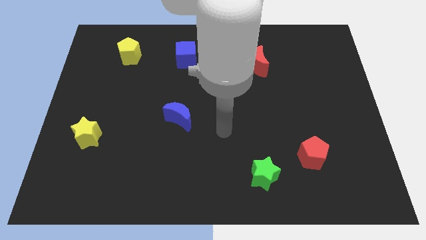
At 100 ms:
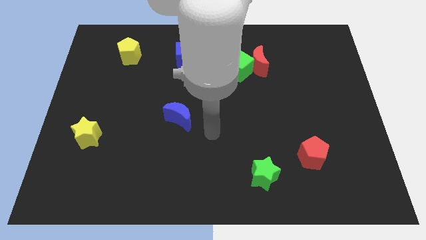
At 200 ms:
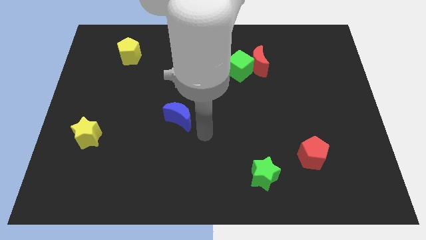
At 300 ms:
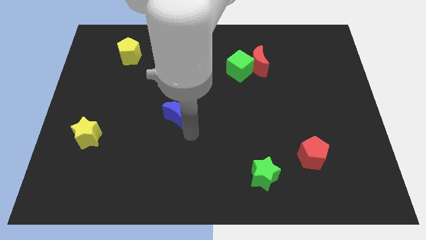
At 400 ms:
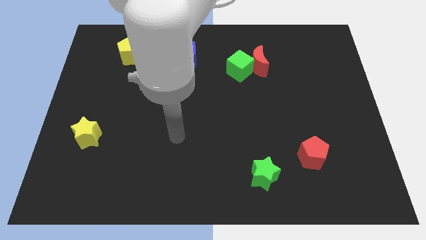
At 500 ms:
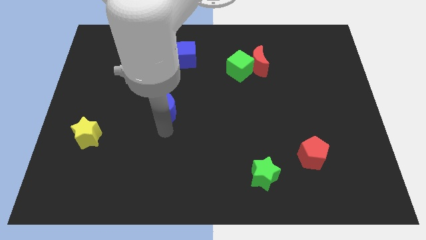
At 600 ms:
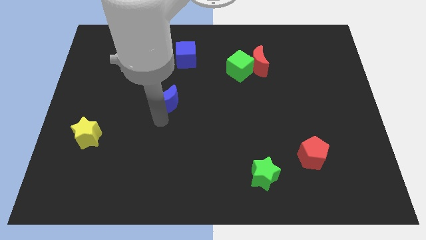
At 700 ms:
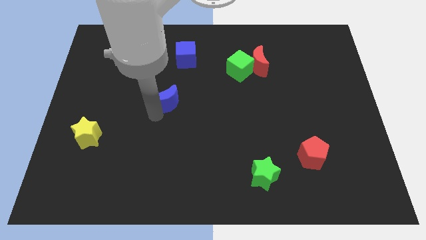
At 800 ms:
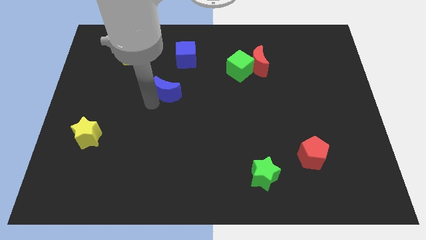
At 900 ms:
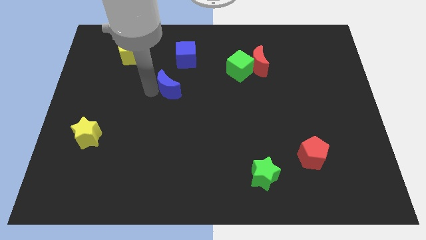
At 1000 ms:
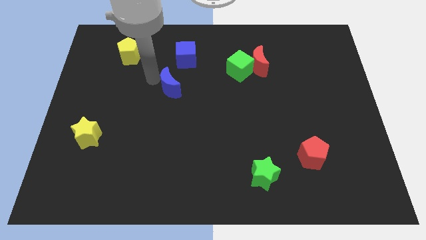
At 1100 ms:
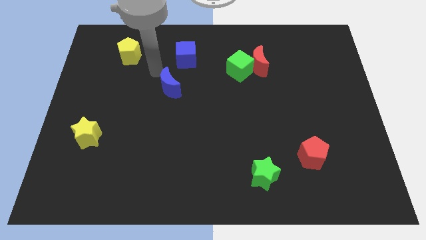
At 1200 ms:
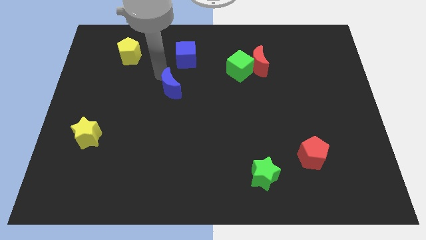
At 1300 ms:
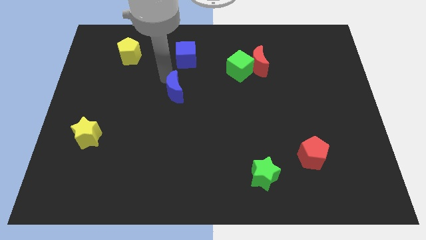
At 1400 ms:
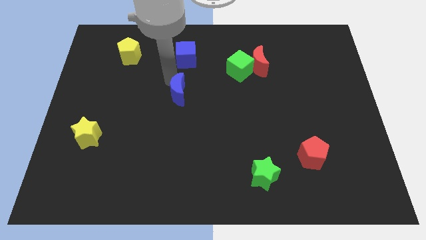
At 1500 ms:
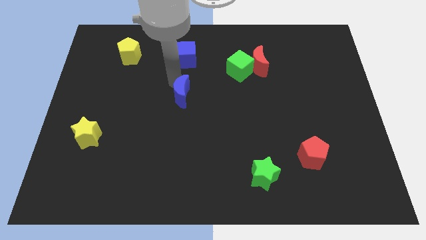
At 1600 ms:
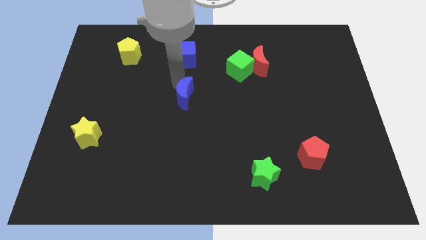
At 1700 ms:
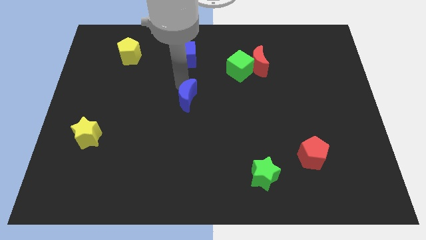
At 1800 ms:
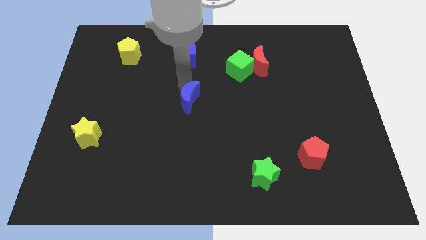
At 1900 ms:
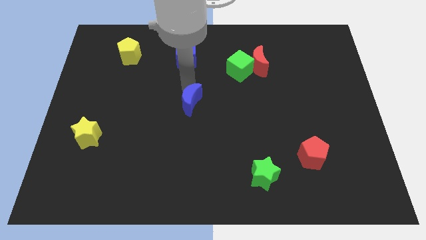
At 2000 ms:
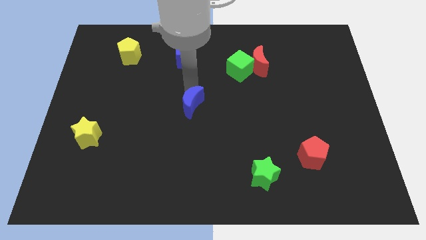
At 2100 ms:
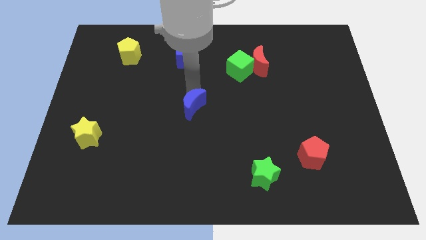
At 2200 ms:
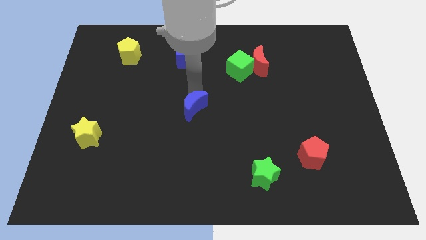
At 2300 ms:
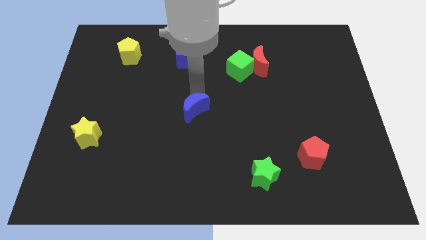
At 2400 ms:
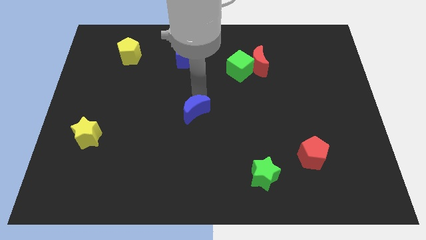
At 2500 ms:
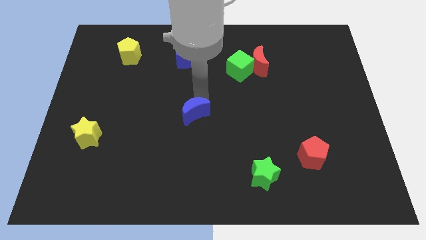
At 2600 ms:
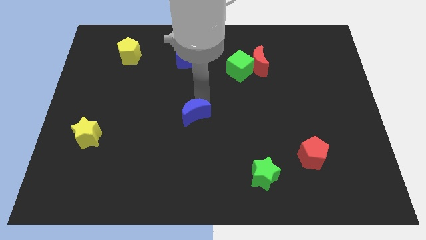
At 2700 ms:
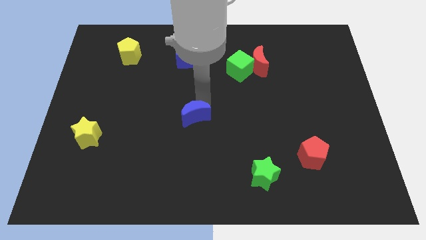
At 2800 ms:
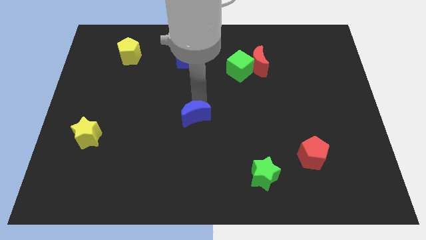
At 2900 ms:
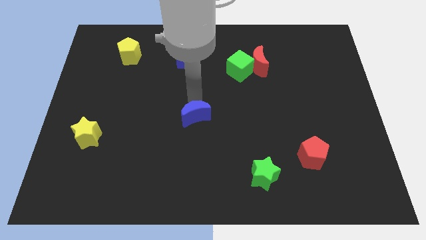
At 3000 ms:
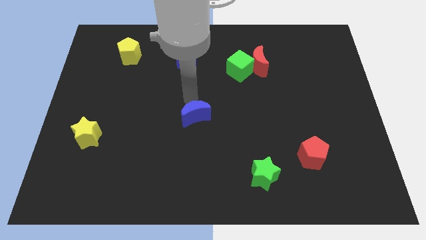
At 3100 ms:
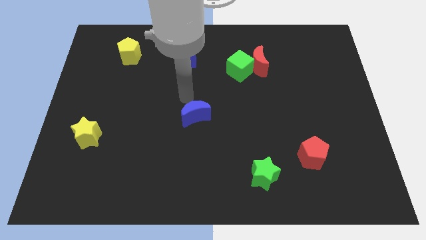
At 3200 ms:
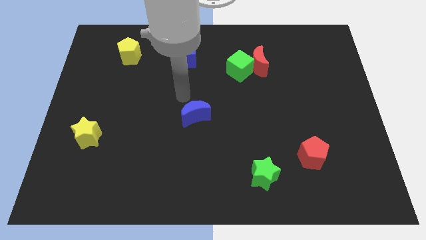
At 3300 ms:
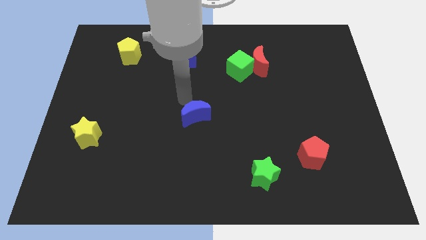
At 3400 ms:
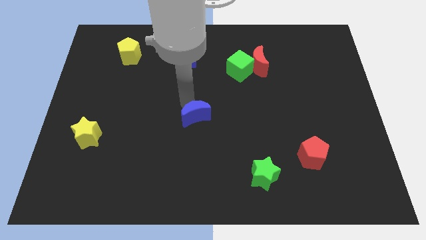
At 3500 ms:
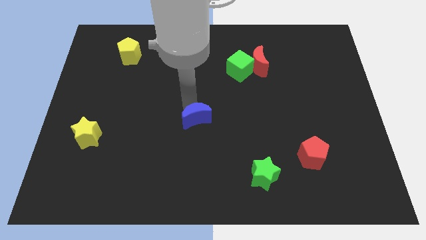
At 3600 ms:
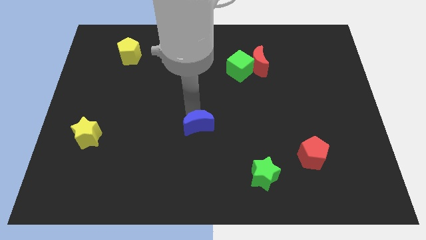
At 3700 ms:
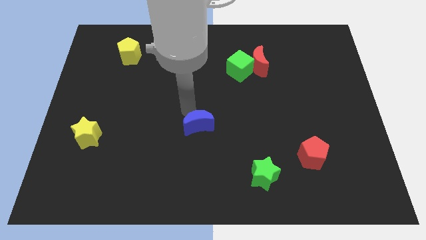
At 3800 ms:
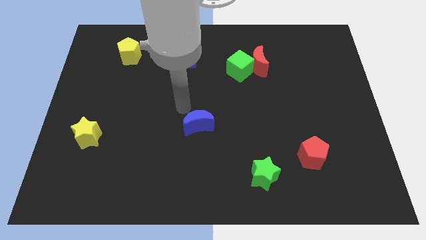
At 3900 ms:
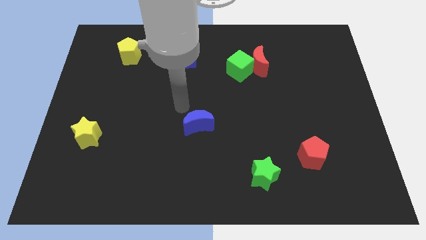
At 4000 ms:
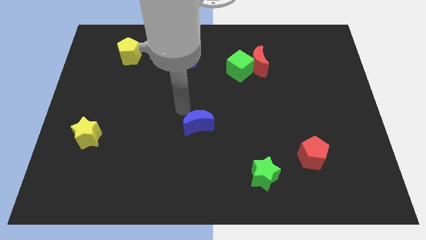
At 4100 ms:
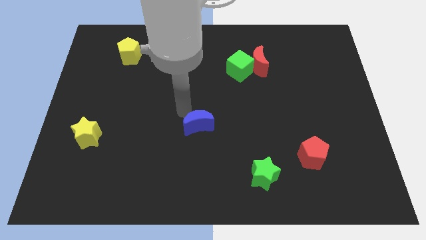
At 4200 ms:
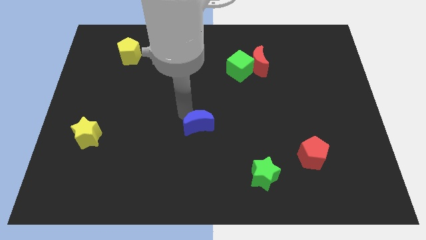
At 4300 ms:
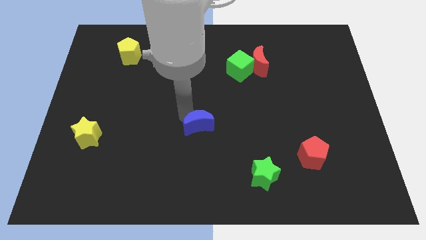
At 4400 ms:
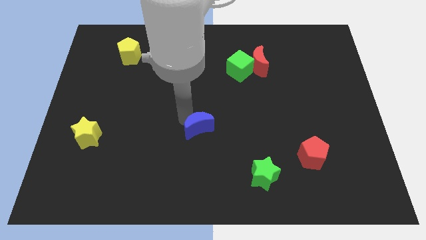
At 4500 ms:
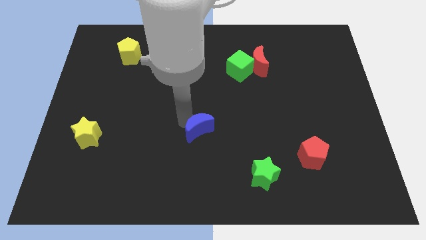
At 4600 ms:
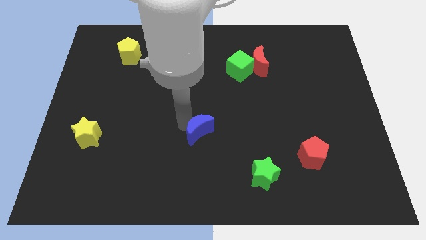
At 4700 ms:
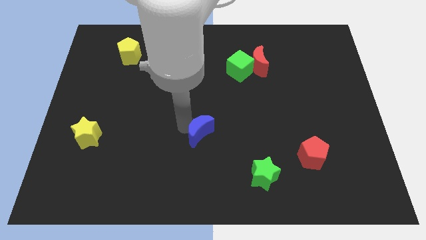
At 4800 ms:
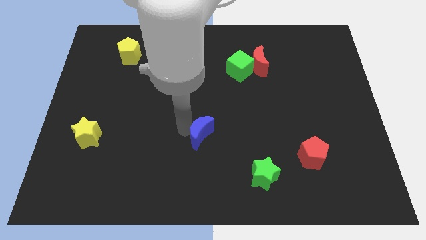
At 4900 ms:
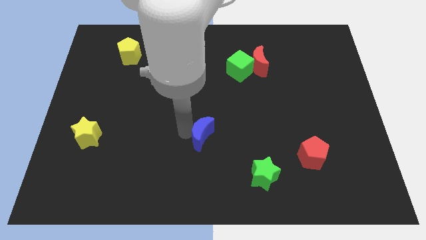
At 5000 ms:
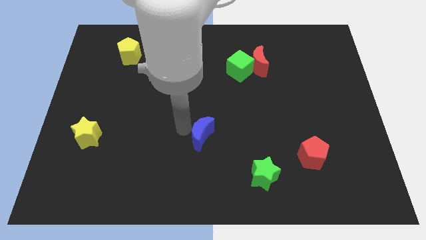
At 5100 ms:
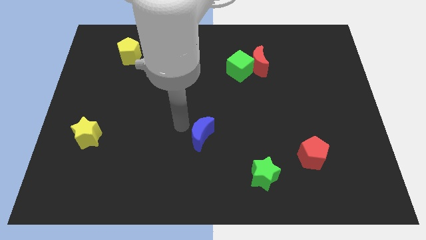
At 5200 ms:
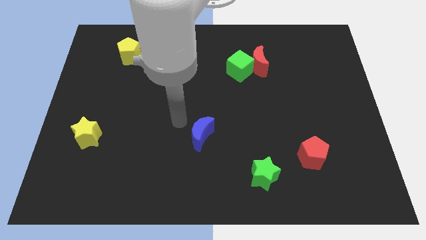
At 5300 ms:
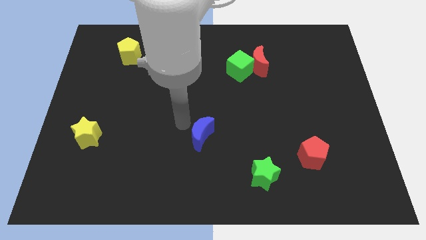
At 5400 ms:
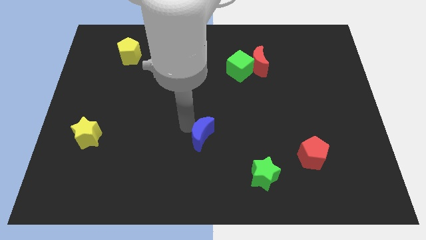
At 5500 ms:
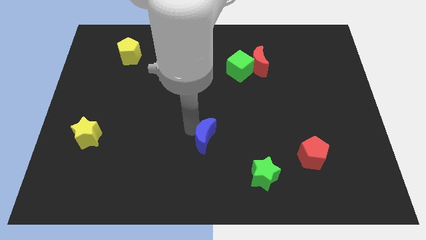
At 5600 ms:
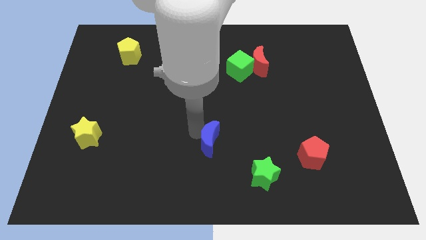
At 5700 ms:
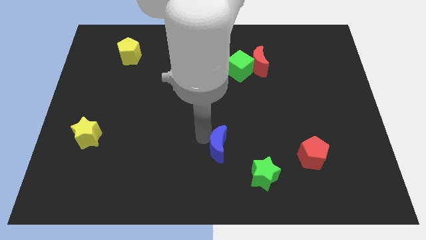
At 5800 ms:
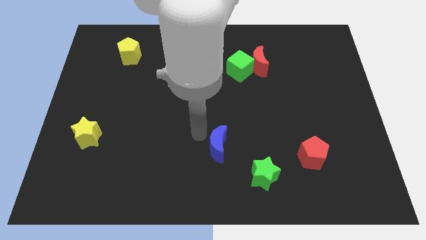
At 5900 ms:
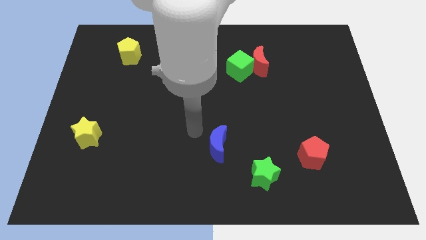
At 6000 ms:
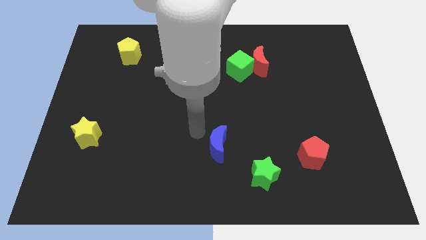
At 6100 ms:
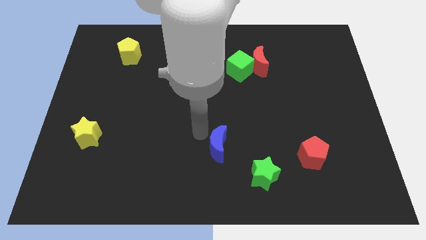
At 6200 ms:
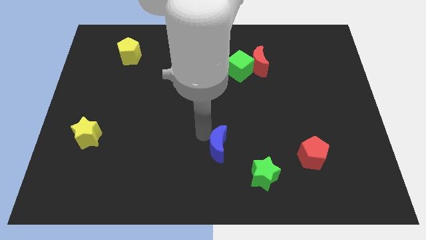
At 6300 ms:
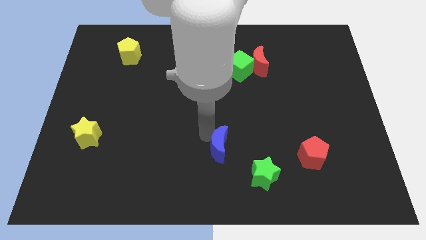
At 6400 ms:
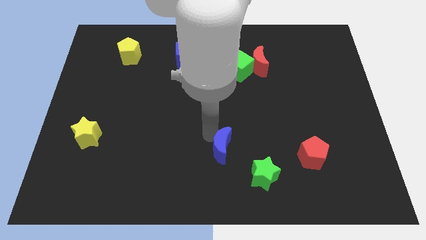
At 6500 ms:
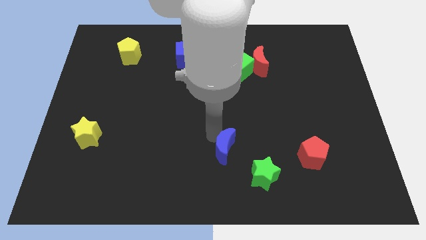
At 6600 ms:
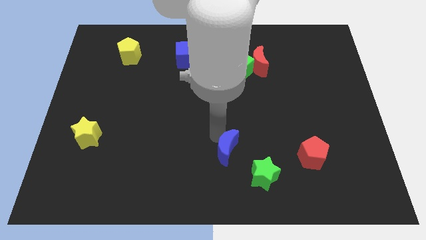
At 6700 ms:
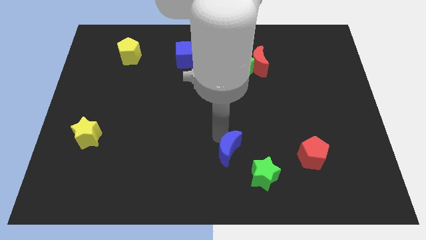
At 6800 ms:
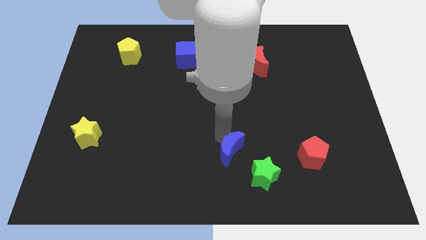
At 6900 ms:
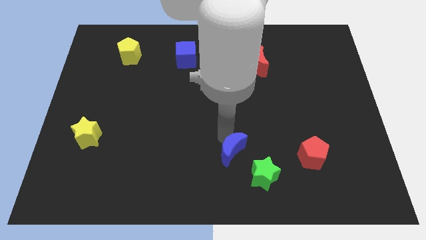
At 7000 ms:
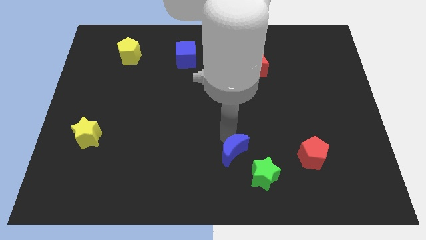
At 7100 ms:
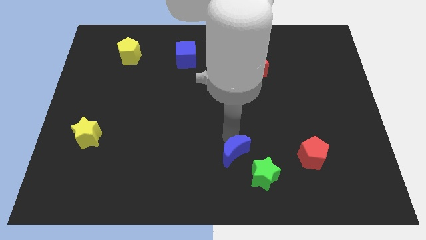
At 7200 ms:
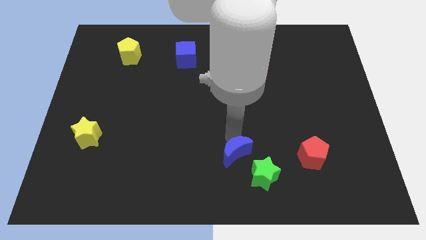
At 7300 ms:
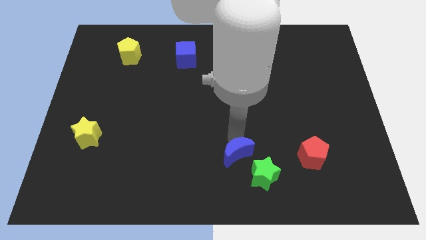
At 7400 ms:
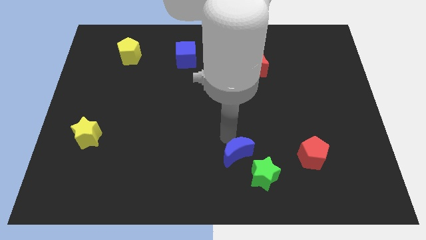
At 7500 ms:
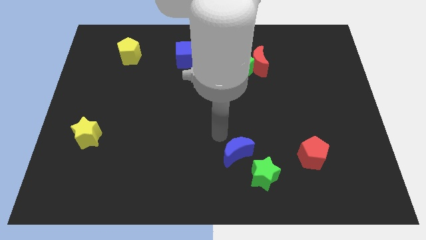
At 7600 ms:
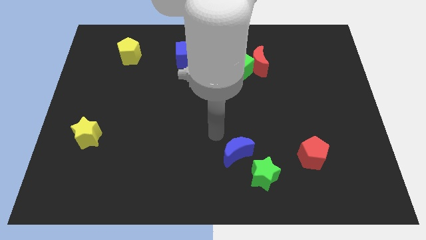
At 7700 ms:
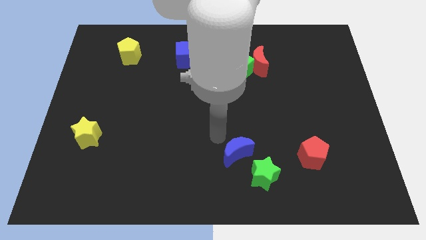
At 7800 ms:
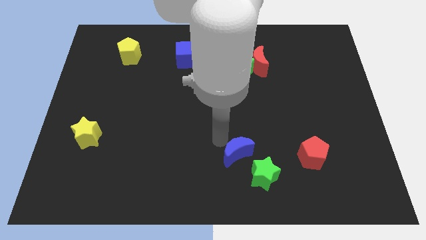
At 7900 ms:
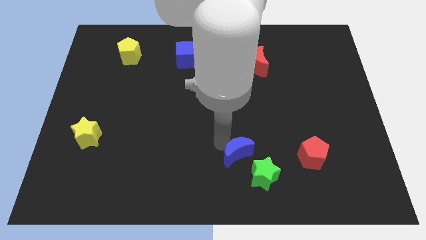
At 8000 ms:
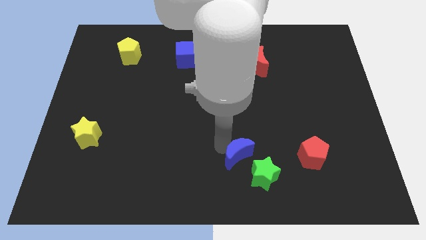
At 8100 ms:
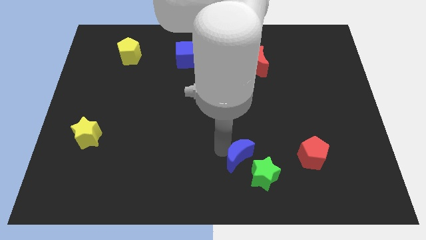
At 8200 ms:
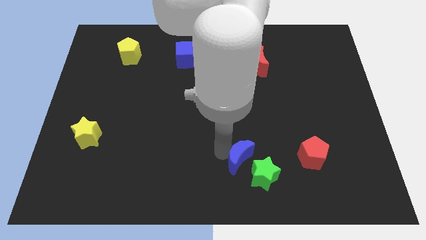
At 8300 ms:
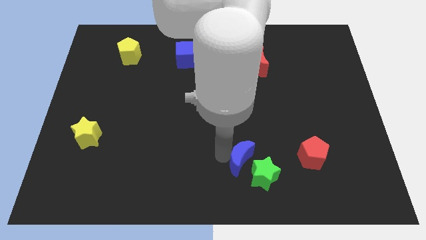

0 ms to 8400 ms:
move the blue moon close to the green star
